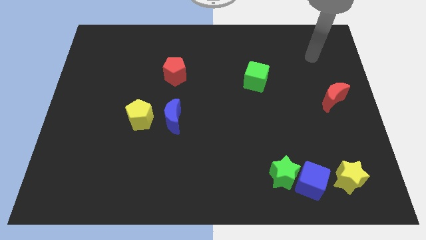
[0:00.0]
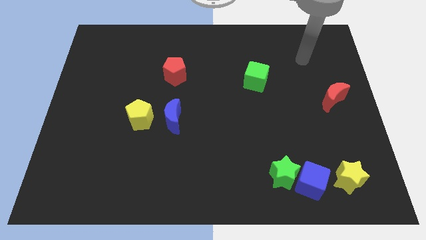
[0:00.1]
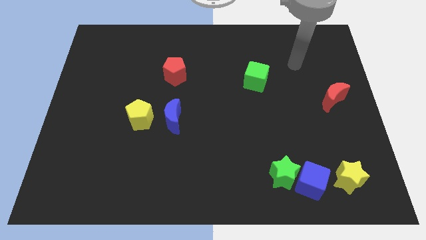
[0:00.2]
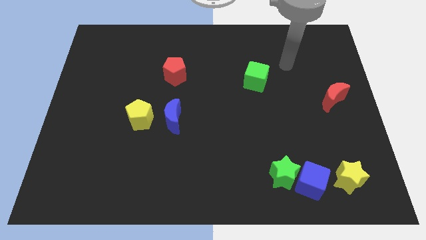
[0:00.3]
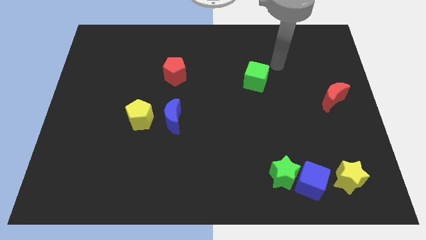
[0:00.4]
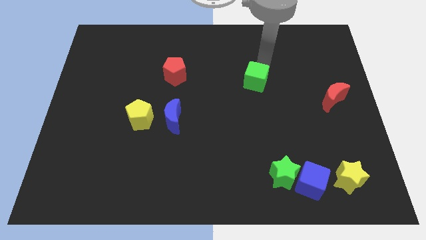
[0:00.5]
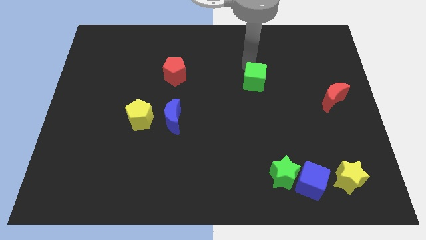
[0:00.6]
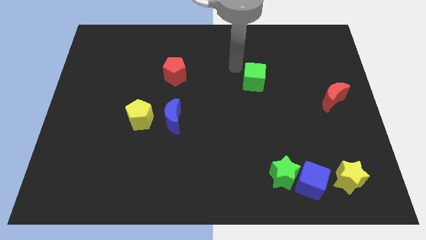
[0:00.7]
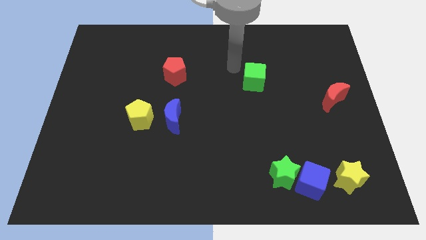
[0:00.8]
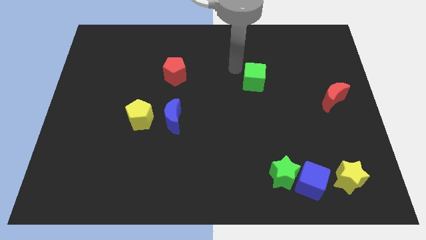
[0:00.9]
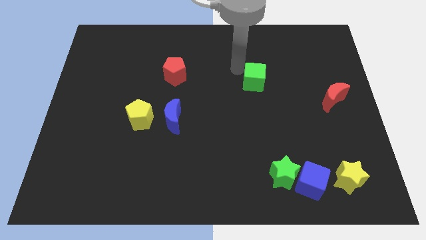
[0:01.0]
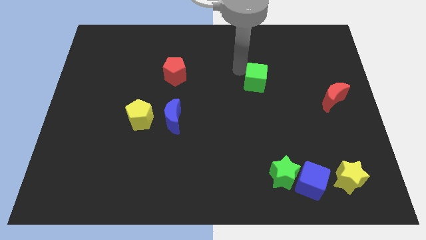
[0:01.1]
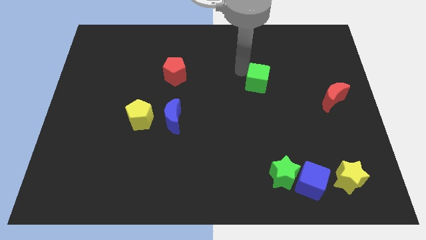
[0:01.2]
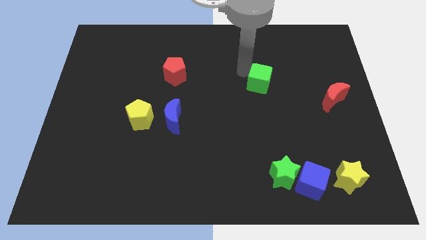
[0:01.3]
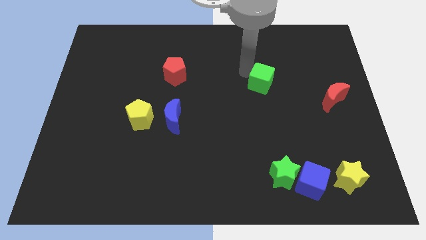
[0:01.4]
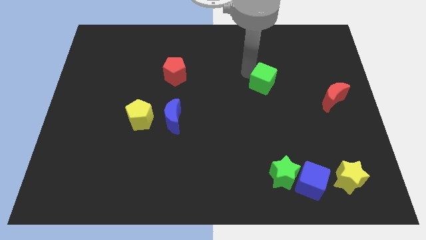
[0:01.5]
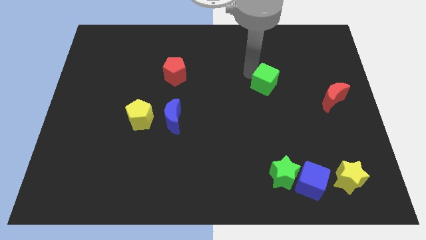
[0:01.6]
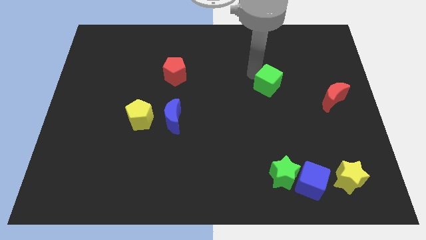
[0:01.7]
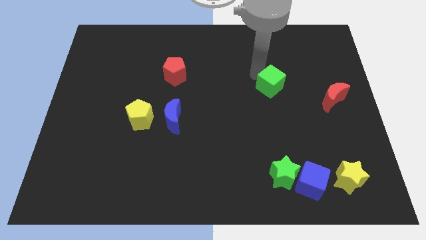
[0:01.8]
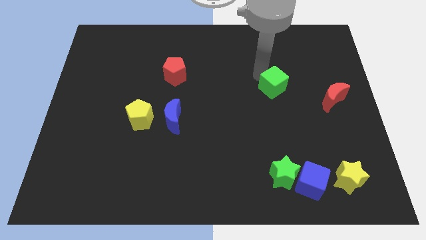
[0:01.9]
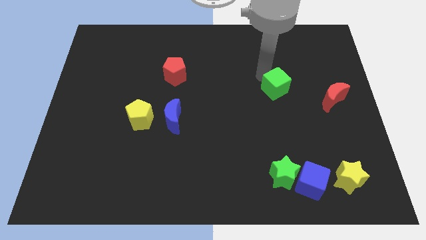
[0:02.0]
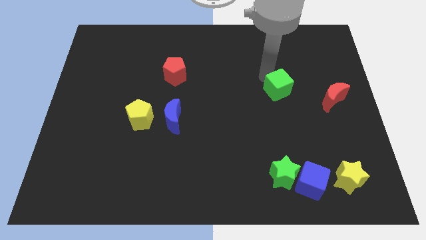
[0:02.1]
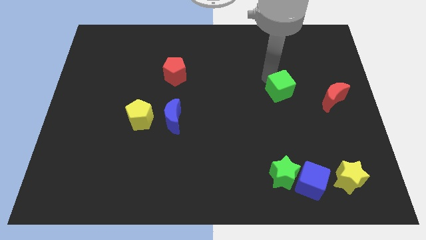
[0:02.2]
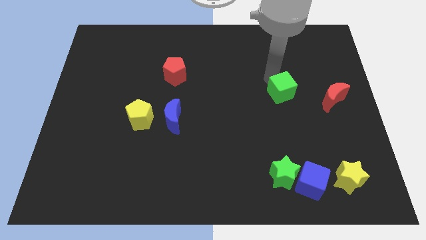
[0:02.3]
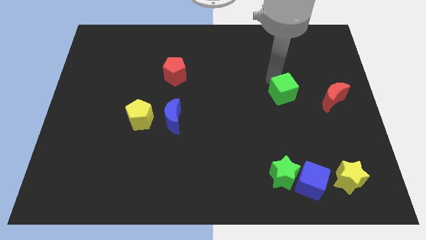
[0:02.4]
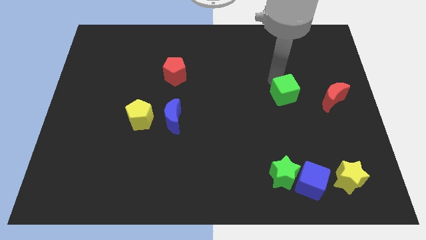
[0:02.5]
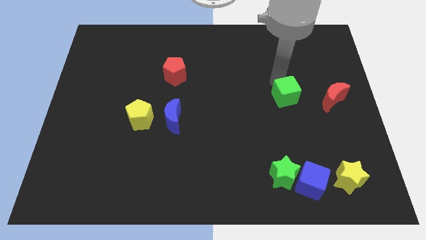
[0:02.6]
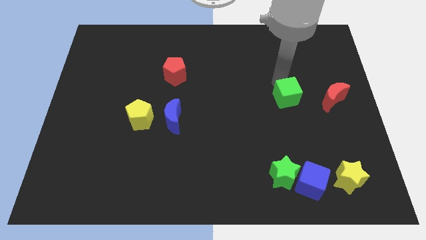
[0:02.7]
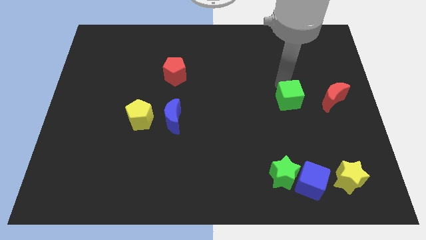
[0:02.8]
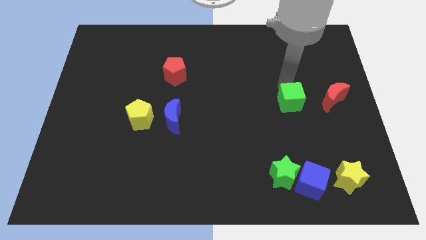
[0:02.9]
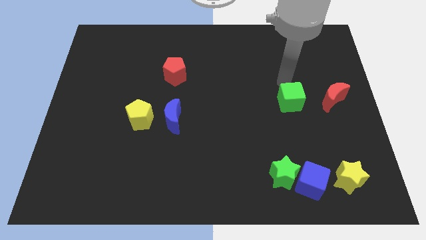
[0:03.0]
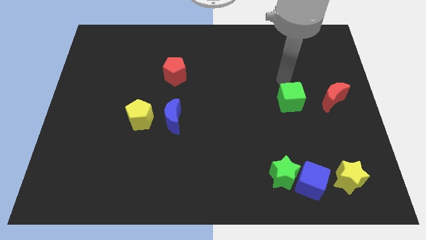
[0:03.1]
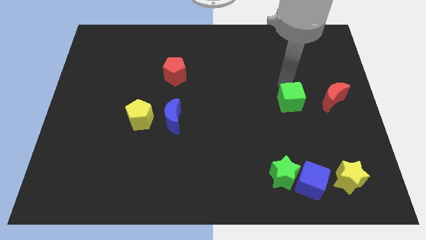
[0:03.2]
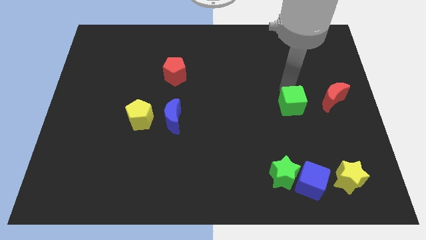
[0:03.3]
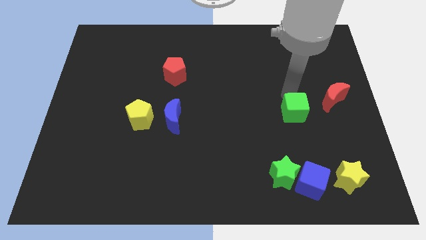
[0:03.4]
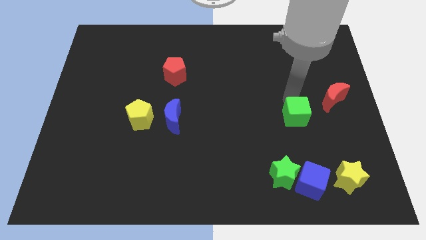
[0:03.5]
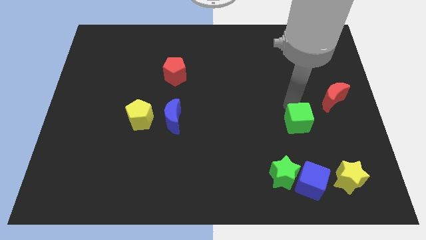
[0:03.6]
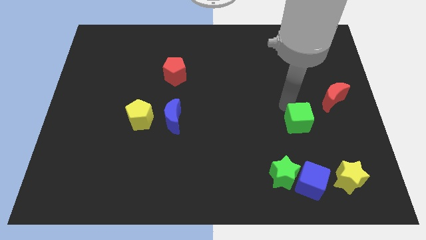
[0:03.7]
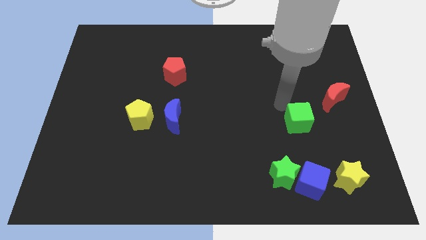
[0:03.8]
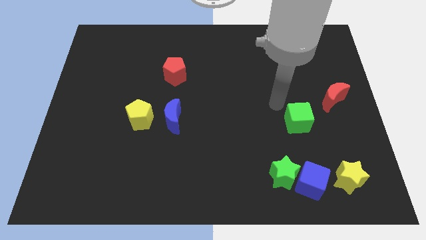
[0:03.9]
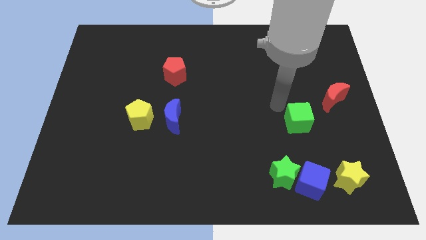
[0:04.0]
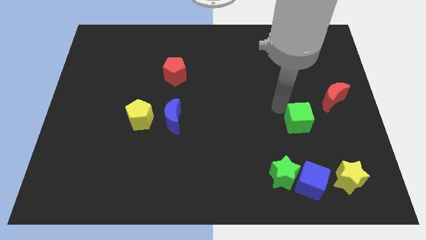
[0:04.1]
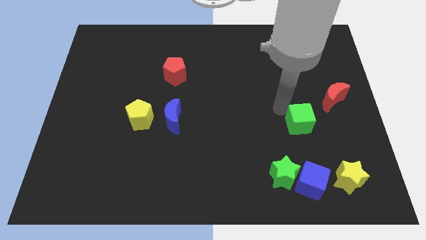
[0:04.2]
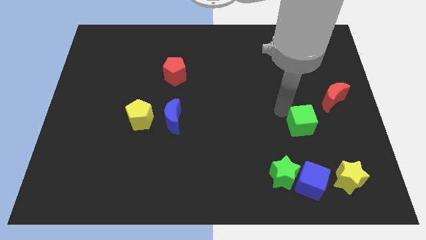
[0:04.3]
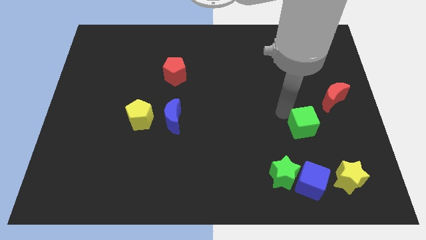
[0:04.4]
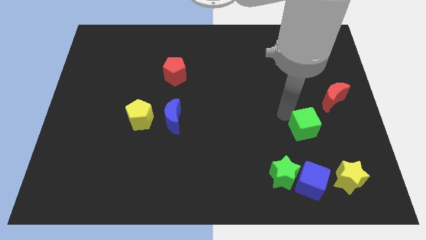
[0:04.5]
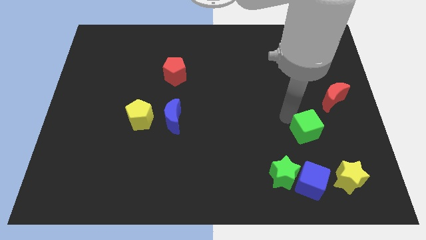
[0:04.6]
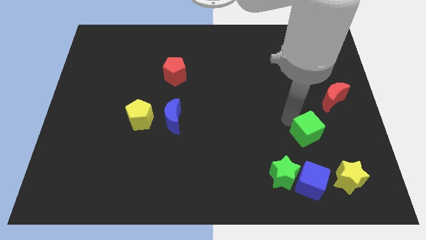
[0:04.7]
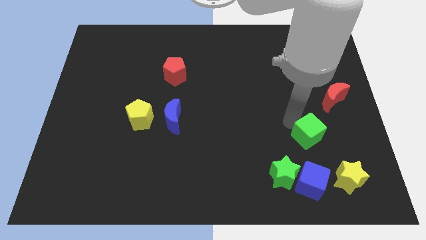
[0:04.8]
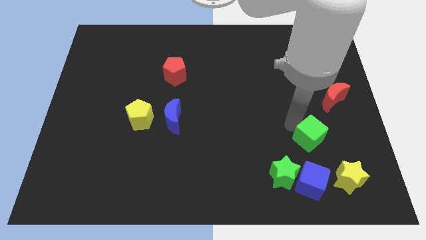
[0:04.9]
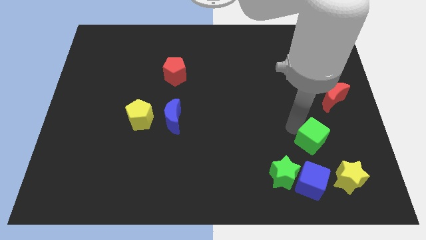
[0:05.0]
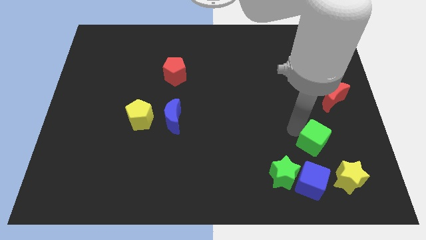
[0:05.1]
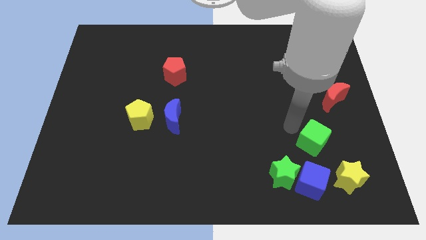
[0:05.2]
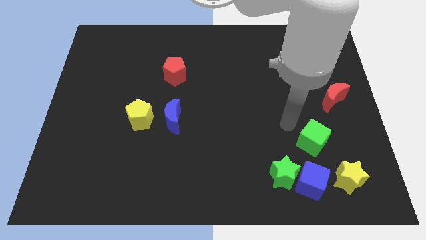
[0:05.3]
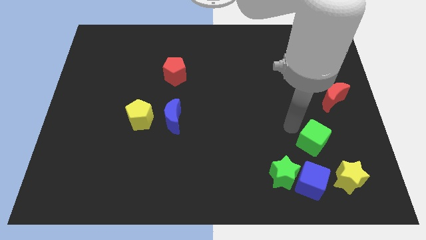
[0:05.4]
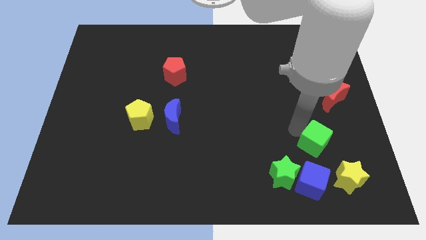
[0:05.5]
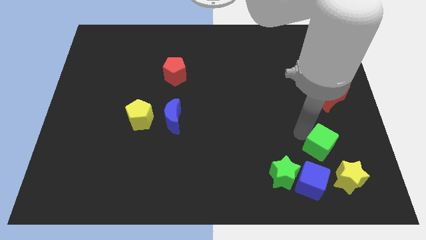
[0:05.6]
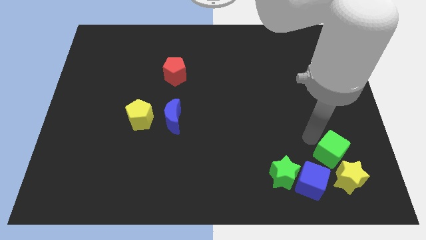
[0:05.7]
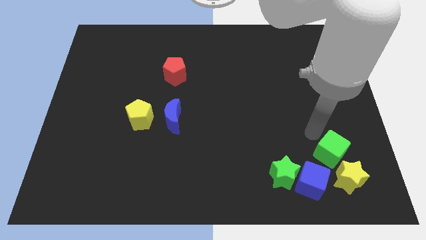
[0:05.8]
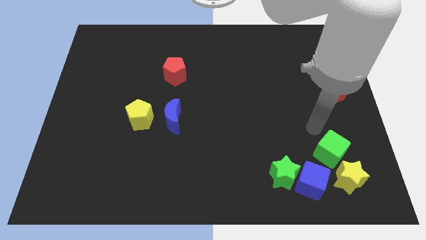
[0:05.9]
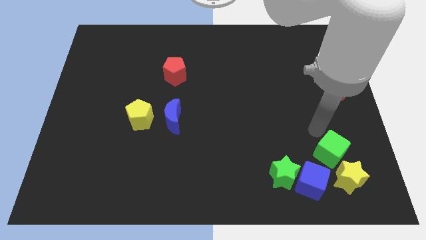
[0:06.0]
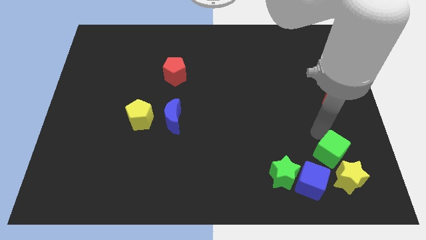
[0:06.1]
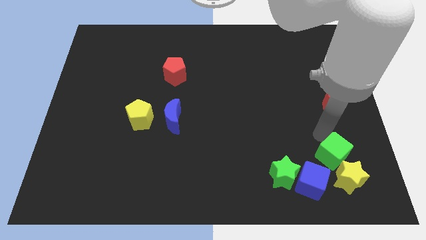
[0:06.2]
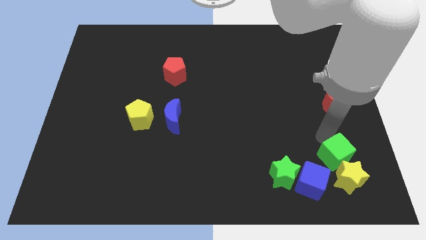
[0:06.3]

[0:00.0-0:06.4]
put the green cube to the yellow star
